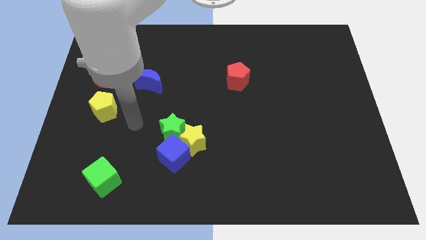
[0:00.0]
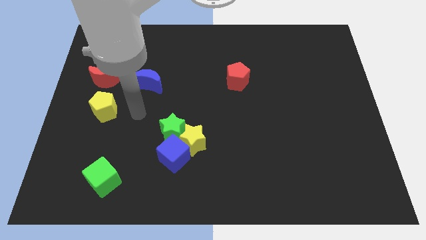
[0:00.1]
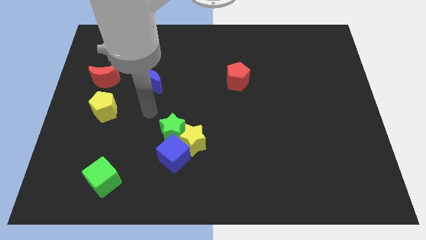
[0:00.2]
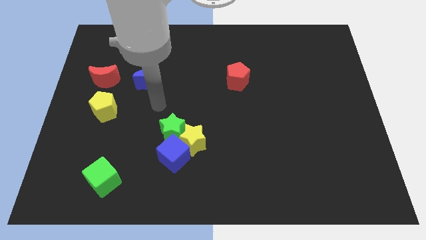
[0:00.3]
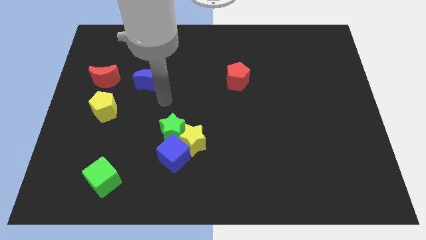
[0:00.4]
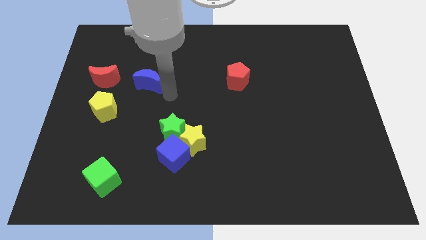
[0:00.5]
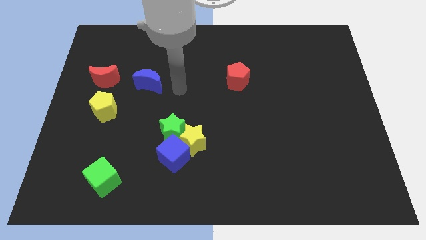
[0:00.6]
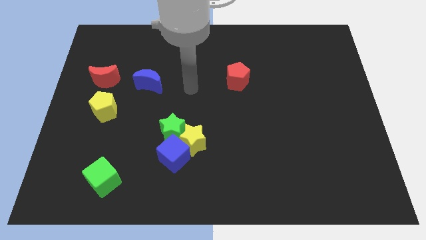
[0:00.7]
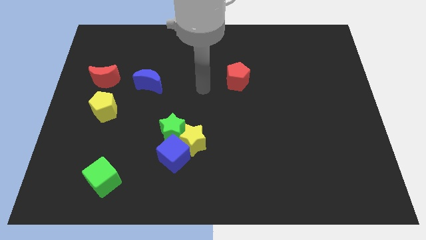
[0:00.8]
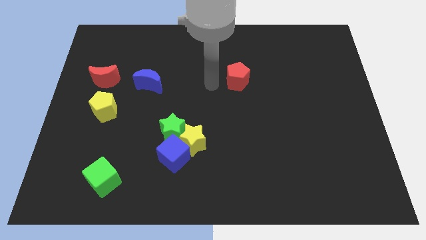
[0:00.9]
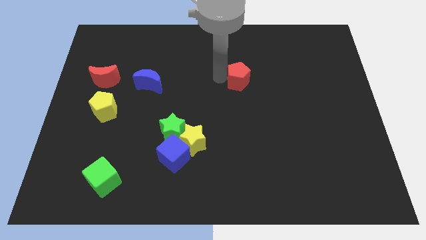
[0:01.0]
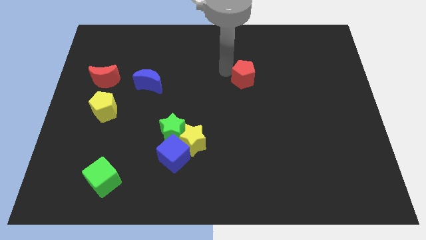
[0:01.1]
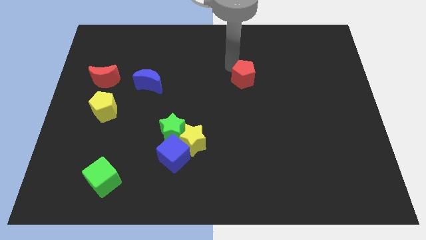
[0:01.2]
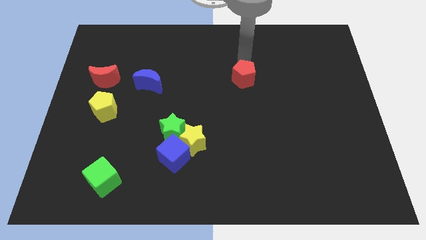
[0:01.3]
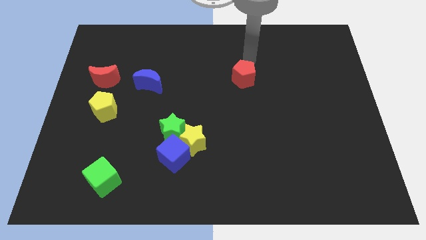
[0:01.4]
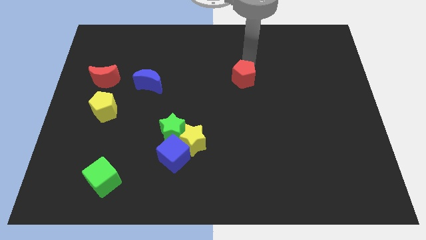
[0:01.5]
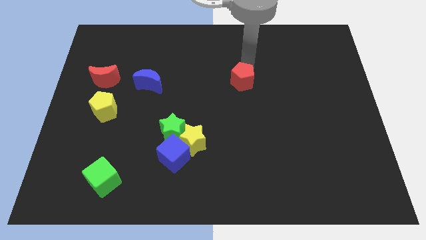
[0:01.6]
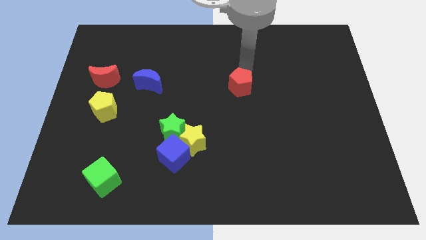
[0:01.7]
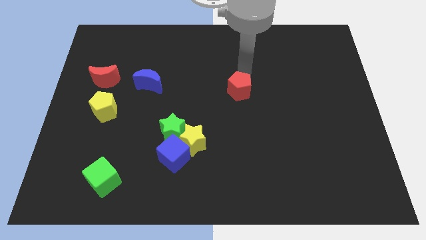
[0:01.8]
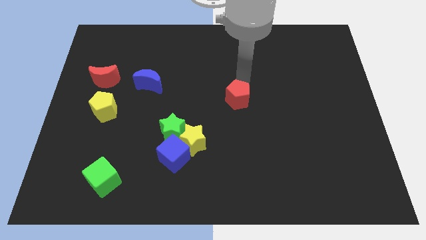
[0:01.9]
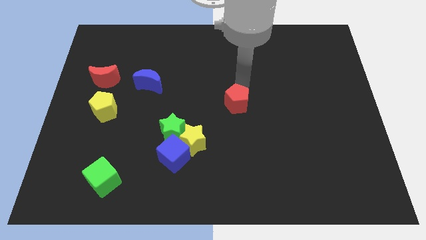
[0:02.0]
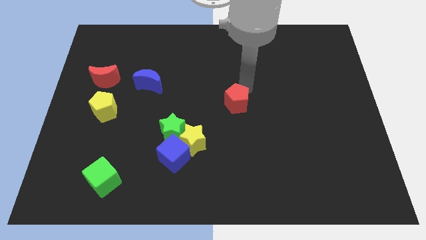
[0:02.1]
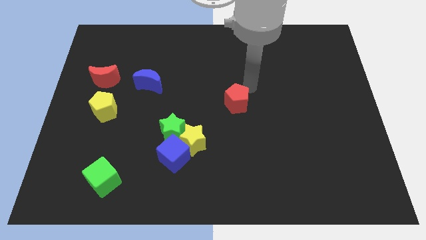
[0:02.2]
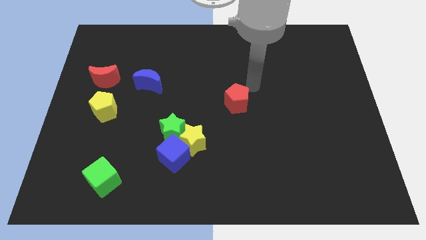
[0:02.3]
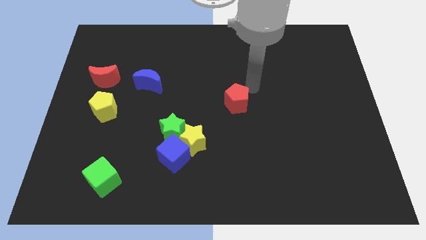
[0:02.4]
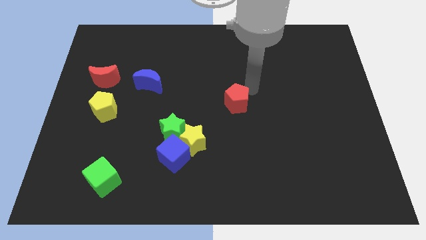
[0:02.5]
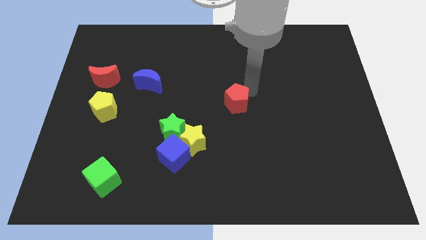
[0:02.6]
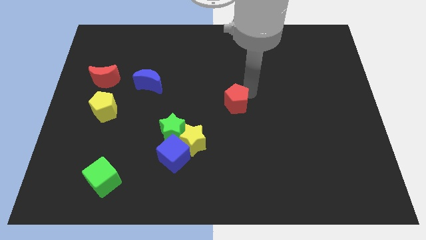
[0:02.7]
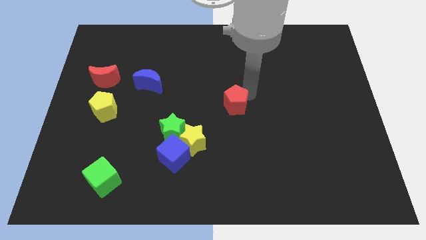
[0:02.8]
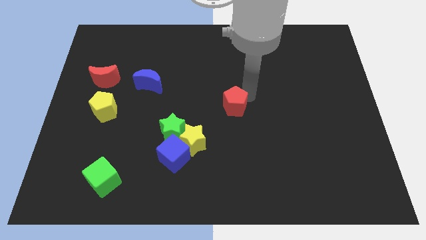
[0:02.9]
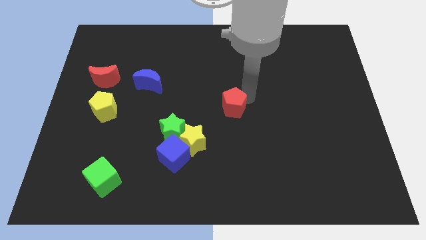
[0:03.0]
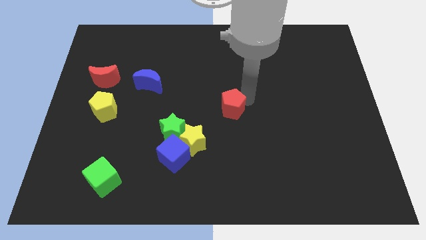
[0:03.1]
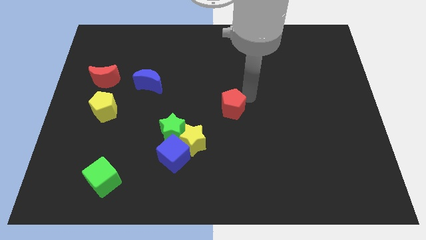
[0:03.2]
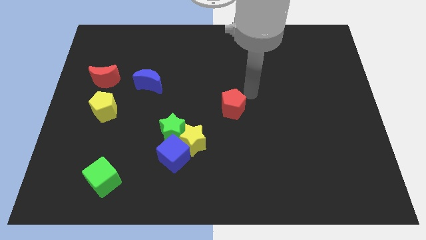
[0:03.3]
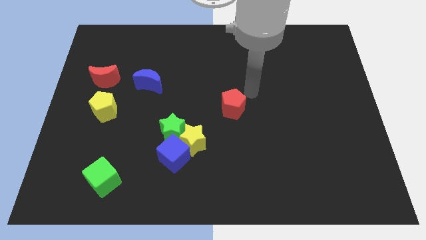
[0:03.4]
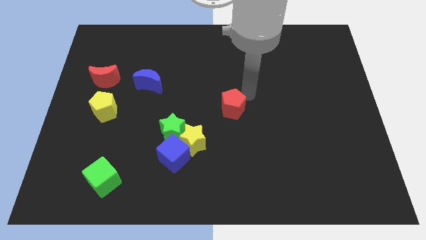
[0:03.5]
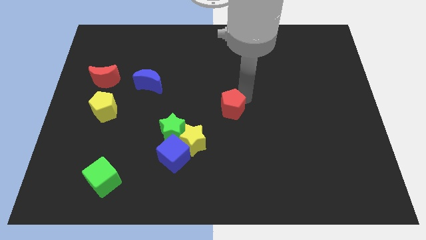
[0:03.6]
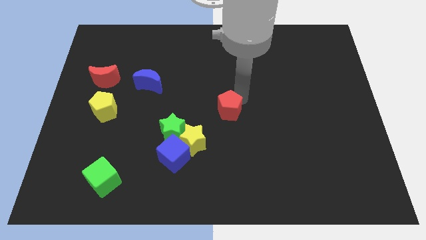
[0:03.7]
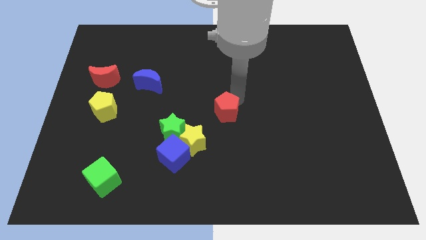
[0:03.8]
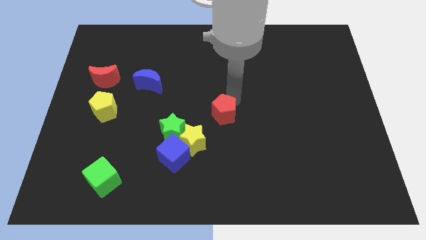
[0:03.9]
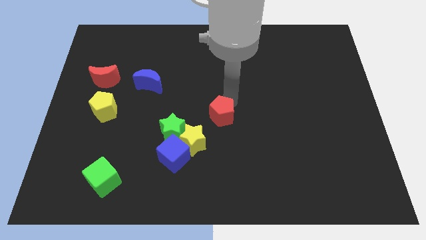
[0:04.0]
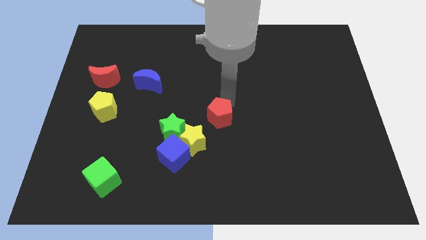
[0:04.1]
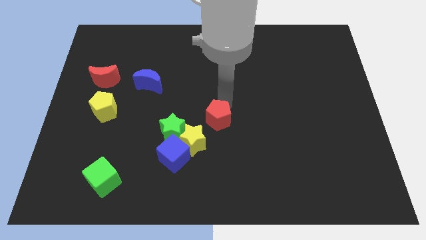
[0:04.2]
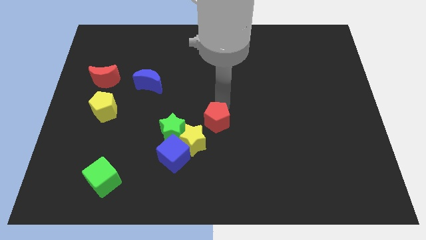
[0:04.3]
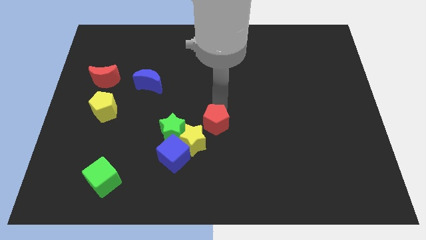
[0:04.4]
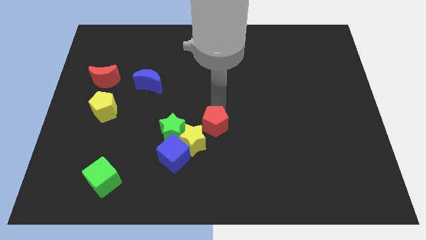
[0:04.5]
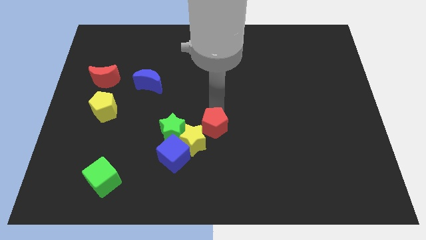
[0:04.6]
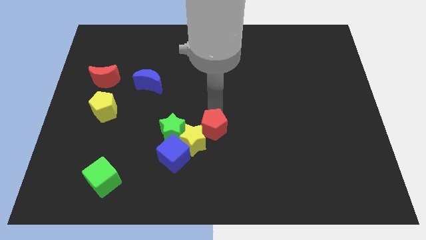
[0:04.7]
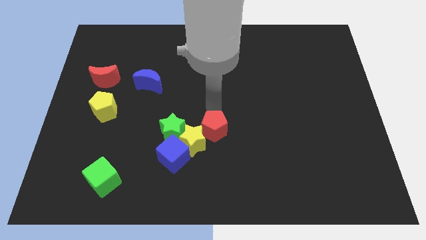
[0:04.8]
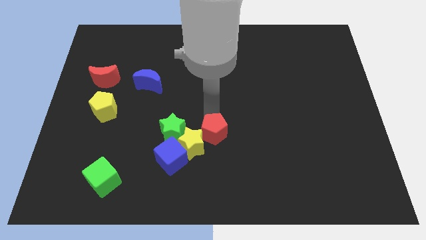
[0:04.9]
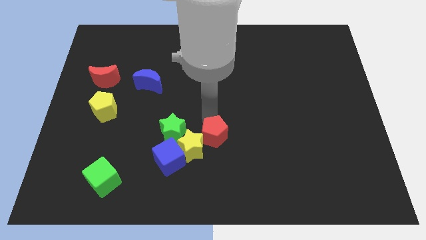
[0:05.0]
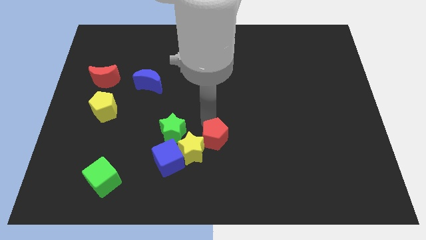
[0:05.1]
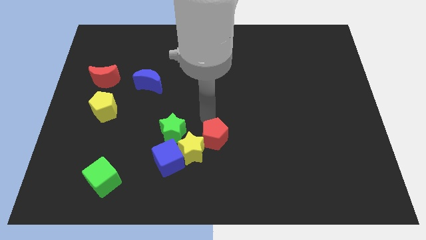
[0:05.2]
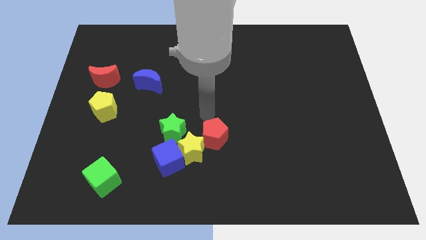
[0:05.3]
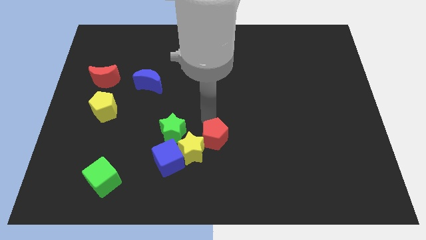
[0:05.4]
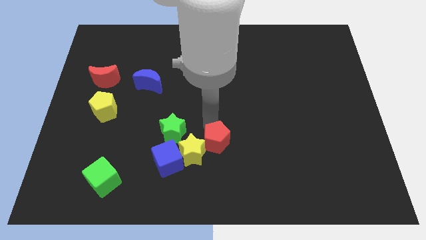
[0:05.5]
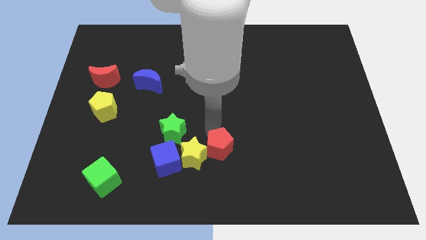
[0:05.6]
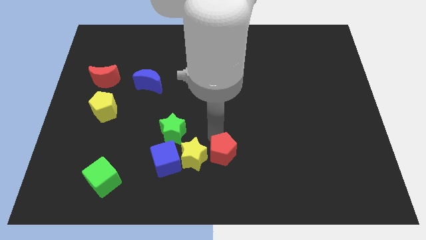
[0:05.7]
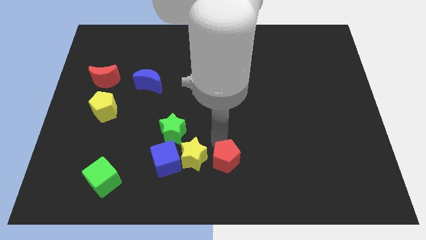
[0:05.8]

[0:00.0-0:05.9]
move the red pentagon to the bottom side

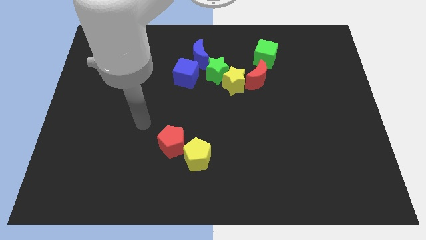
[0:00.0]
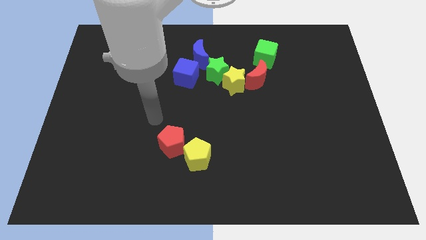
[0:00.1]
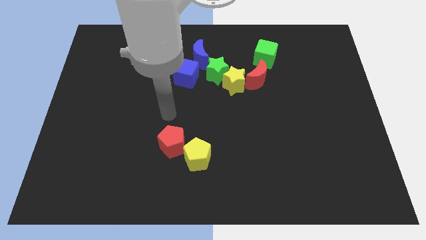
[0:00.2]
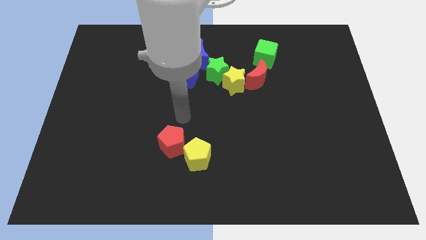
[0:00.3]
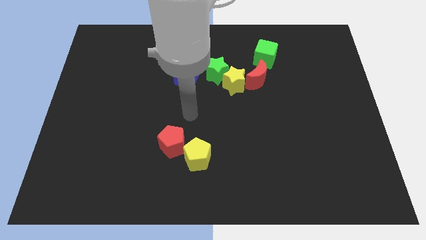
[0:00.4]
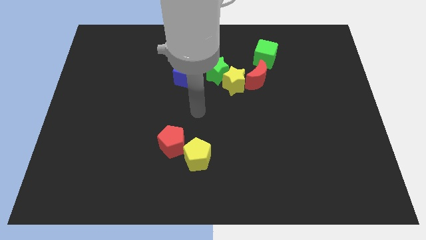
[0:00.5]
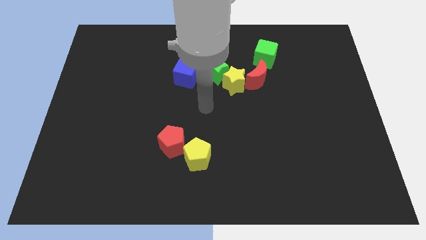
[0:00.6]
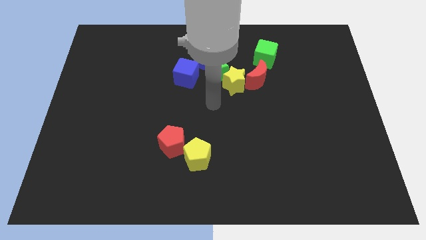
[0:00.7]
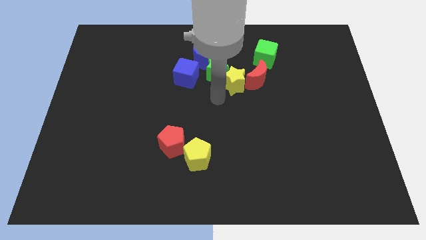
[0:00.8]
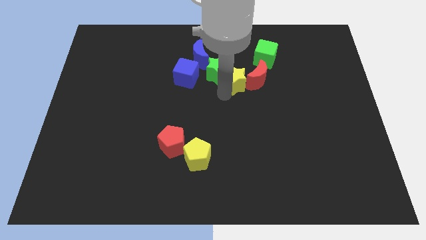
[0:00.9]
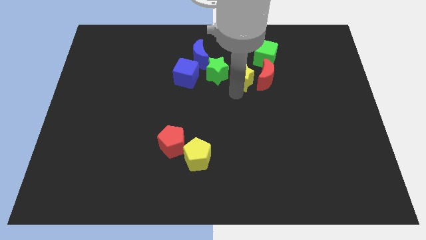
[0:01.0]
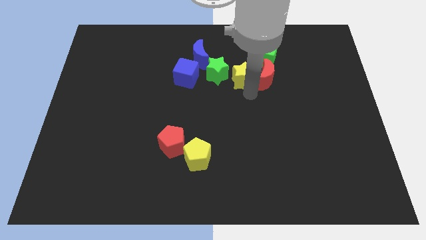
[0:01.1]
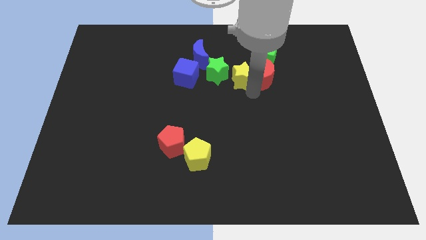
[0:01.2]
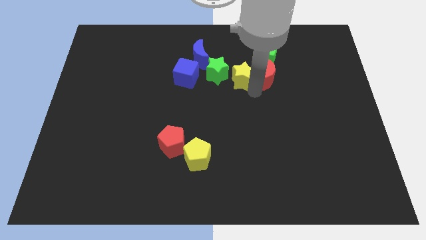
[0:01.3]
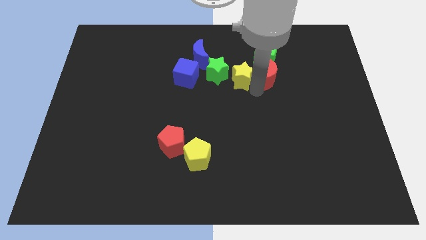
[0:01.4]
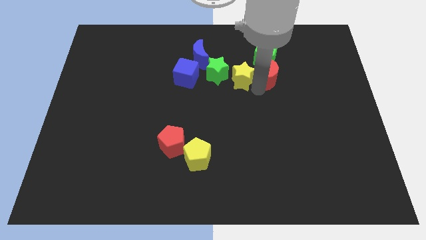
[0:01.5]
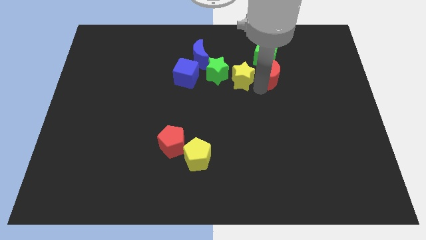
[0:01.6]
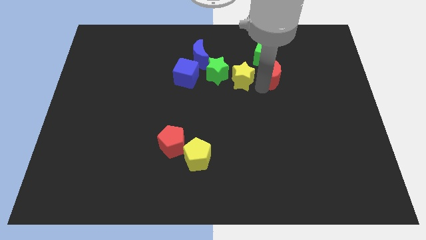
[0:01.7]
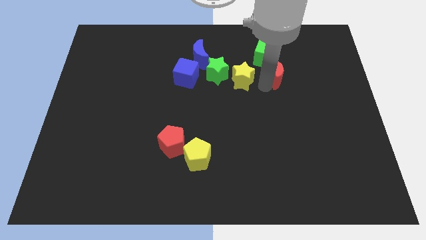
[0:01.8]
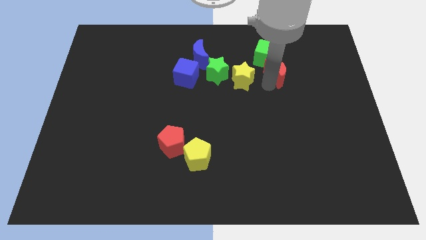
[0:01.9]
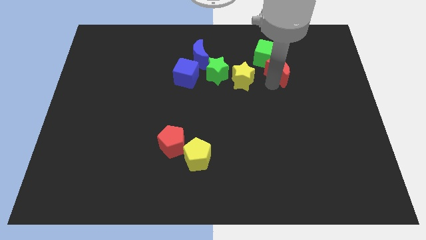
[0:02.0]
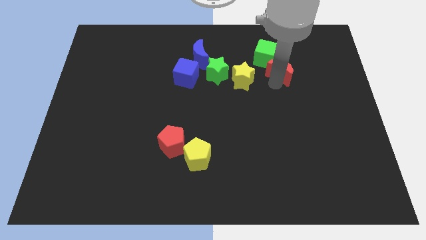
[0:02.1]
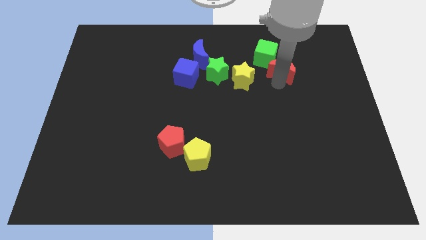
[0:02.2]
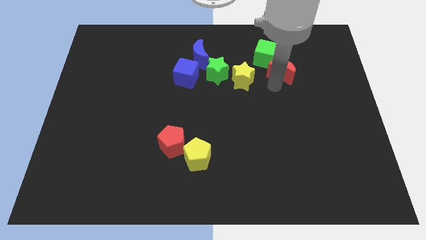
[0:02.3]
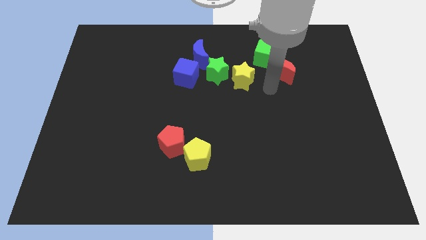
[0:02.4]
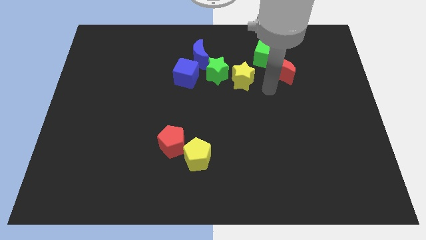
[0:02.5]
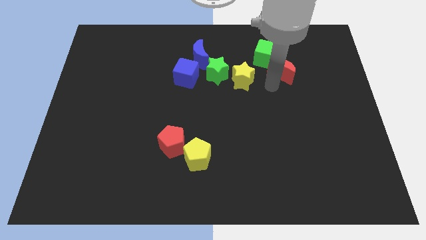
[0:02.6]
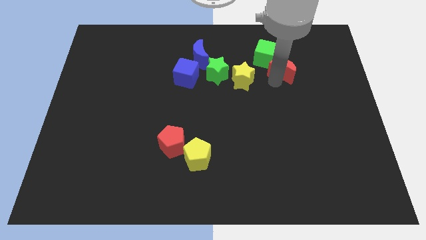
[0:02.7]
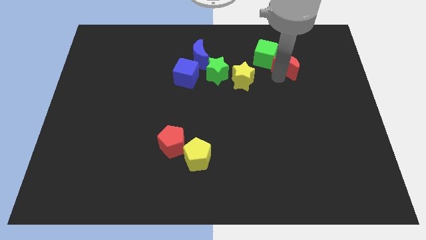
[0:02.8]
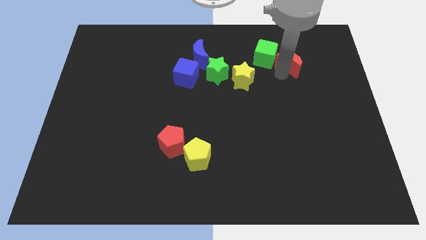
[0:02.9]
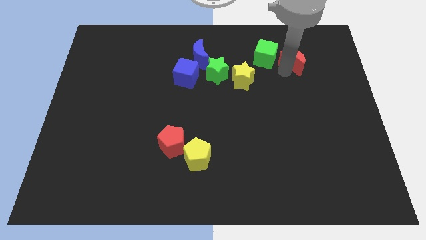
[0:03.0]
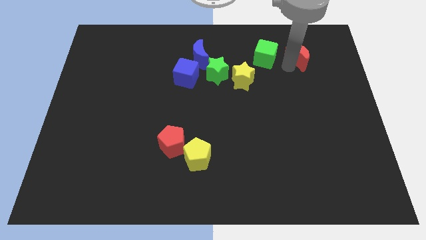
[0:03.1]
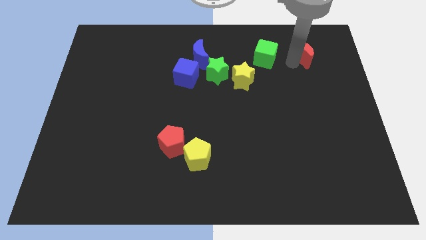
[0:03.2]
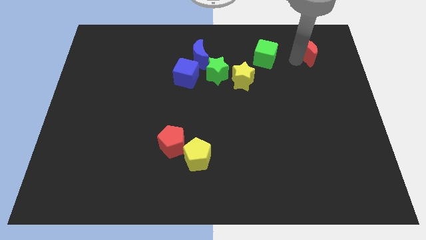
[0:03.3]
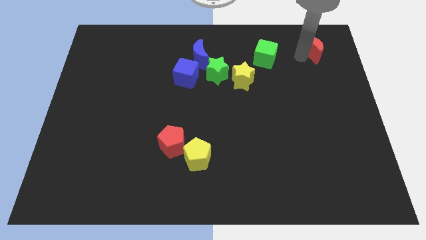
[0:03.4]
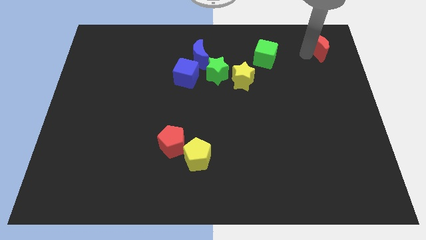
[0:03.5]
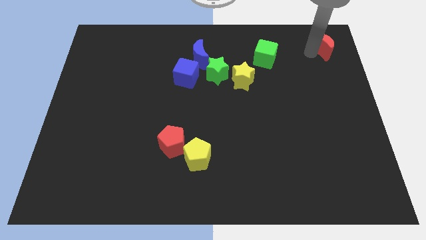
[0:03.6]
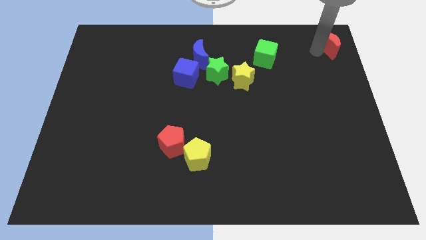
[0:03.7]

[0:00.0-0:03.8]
slide the red moon to the top right of the board
